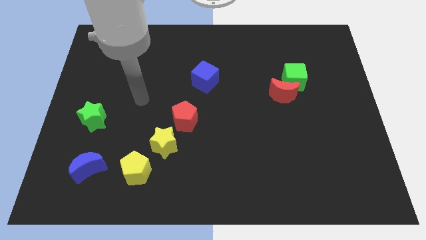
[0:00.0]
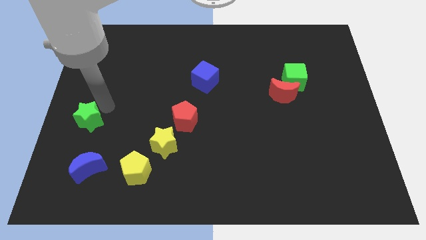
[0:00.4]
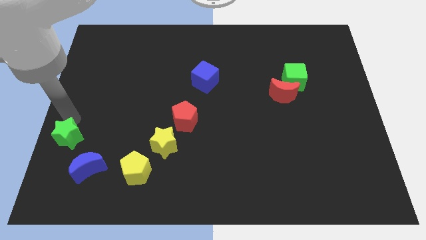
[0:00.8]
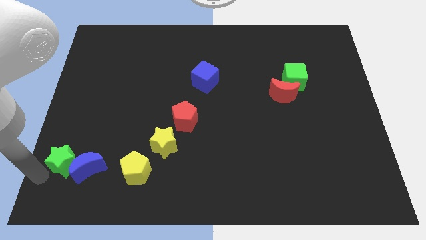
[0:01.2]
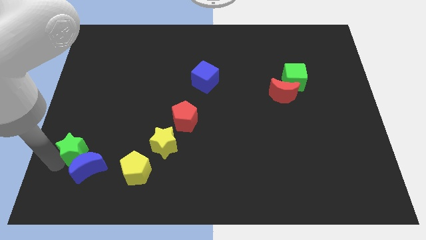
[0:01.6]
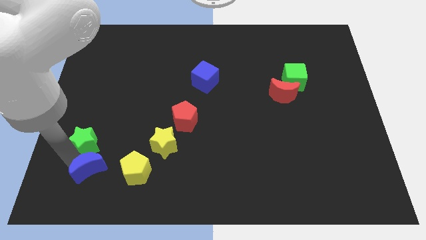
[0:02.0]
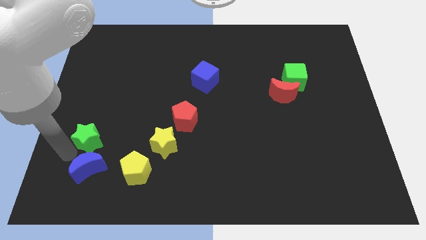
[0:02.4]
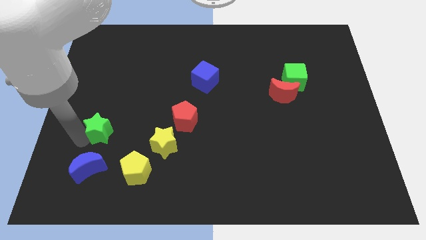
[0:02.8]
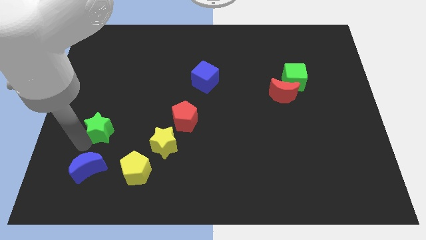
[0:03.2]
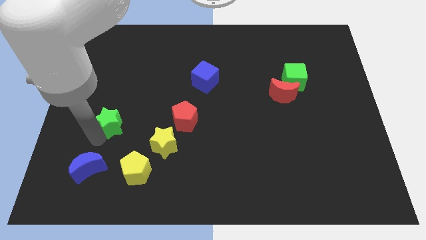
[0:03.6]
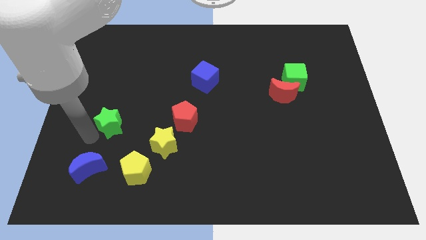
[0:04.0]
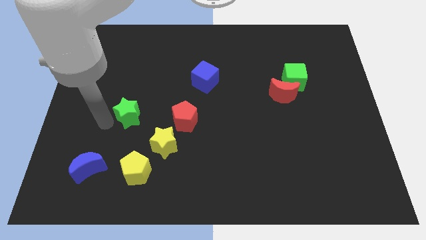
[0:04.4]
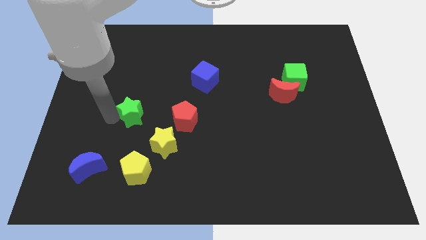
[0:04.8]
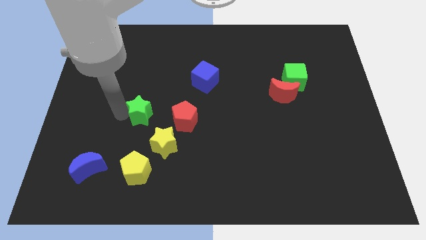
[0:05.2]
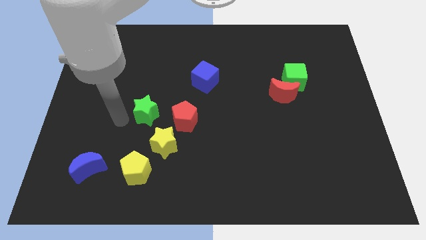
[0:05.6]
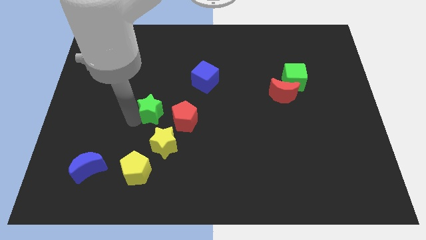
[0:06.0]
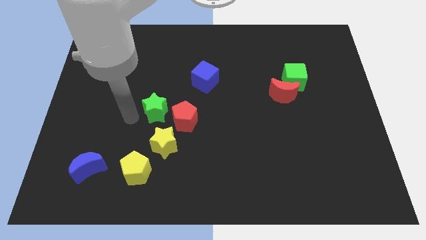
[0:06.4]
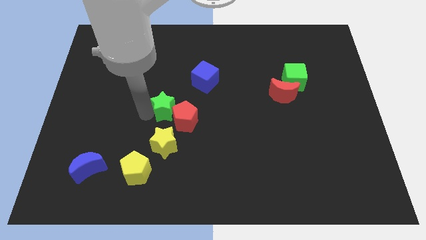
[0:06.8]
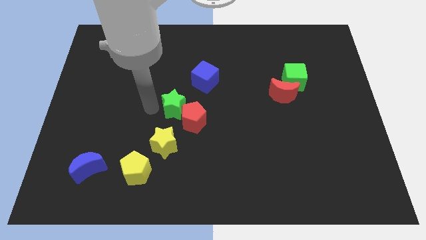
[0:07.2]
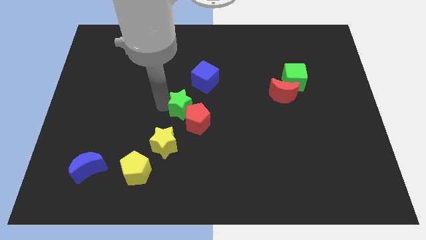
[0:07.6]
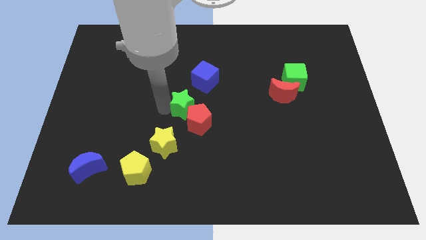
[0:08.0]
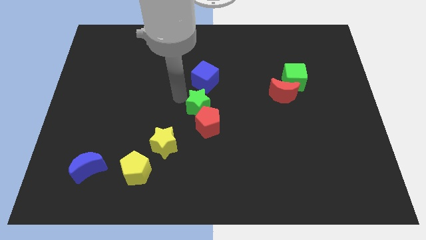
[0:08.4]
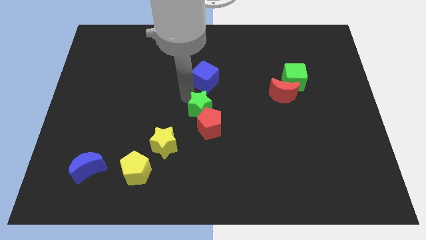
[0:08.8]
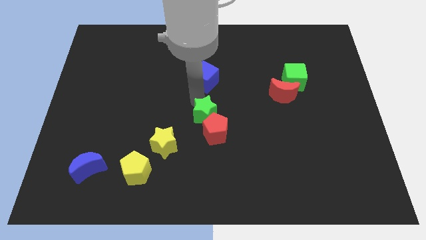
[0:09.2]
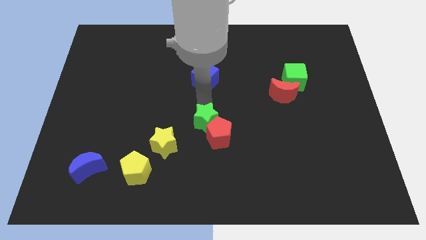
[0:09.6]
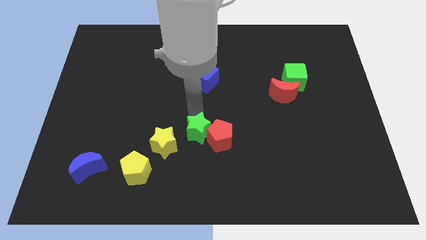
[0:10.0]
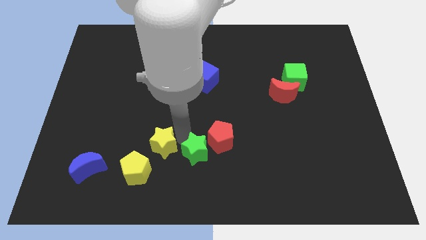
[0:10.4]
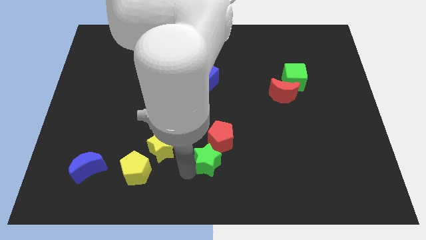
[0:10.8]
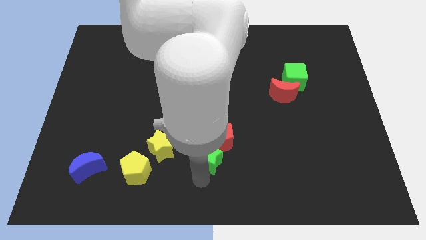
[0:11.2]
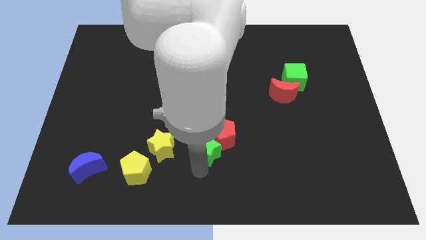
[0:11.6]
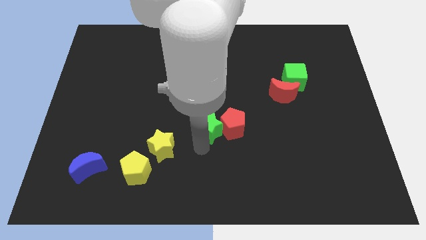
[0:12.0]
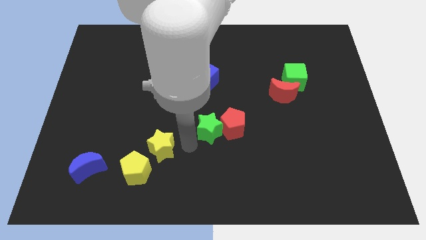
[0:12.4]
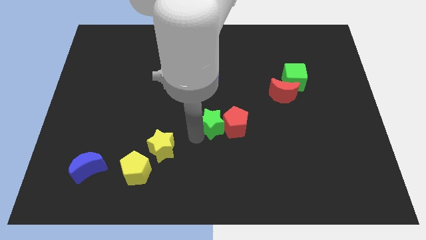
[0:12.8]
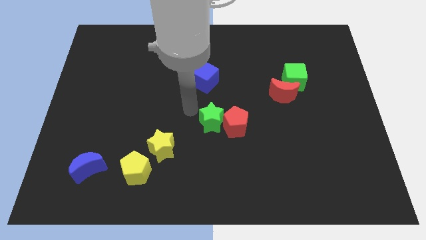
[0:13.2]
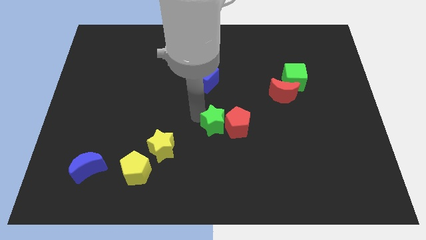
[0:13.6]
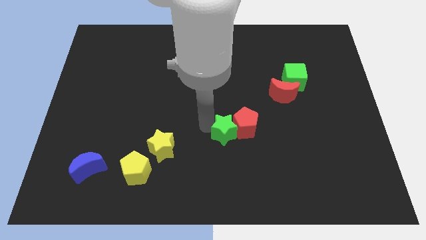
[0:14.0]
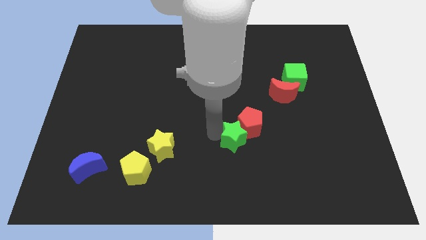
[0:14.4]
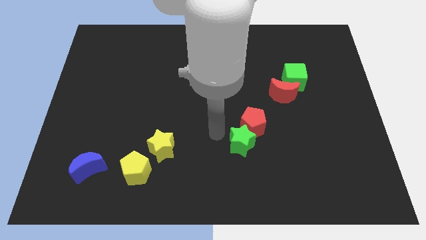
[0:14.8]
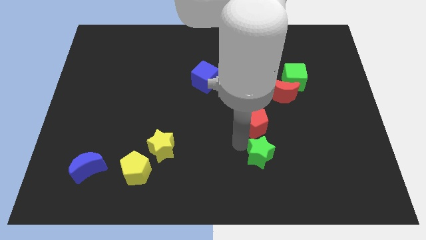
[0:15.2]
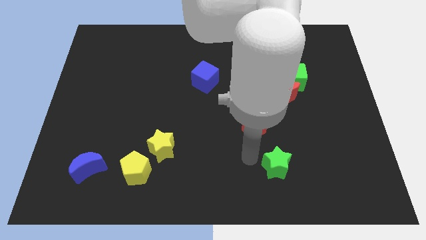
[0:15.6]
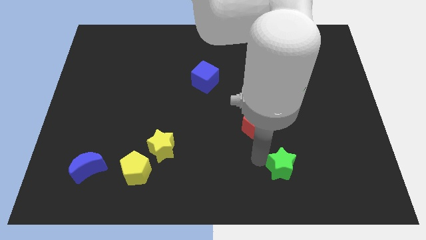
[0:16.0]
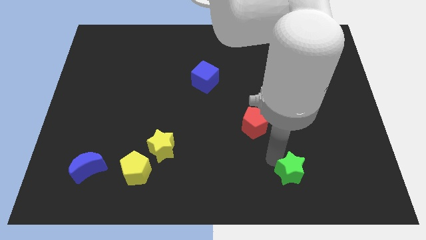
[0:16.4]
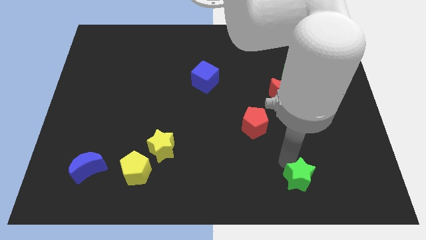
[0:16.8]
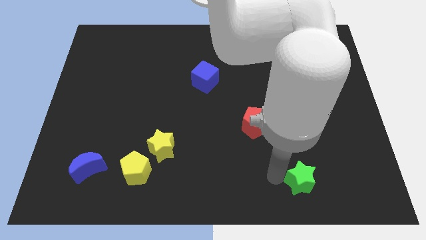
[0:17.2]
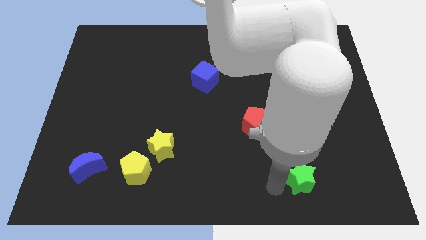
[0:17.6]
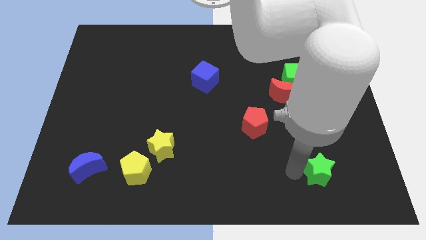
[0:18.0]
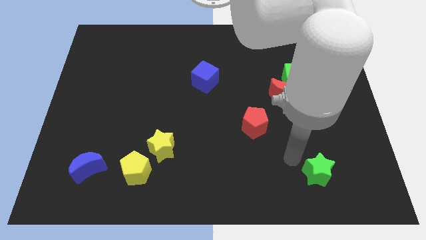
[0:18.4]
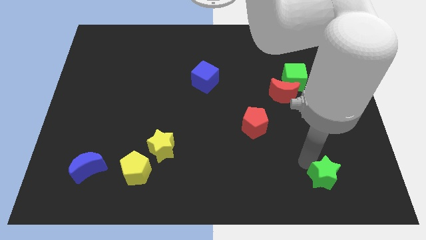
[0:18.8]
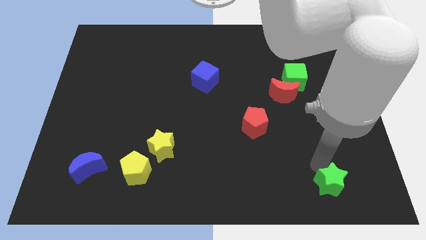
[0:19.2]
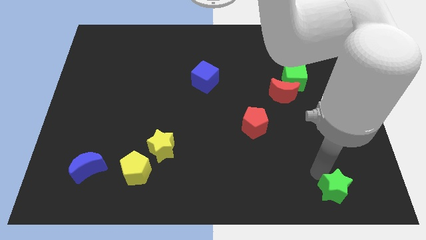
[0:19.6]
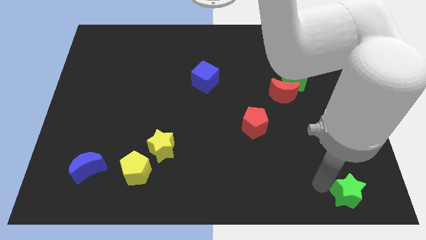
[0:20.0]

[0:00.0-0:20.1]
move the green star to the bottom right

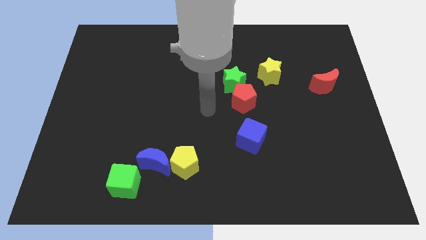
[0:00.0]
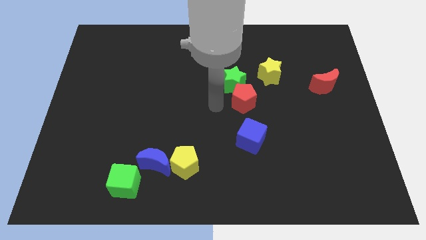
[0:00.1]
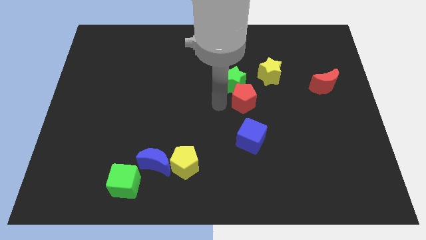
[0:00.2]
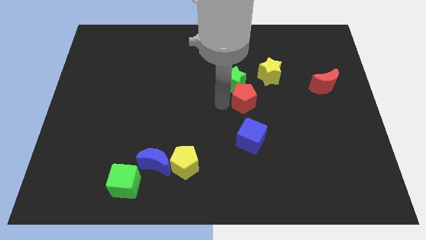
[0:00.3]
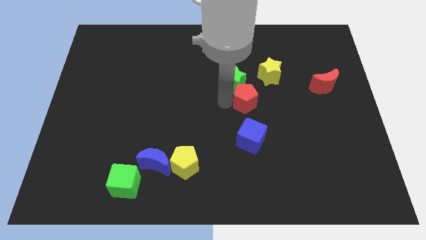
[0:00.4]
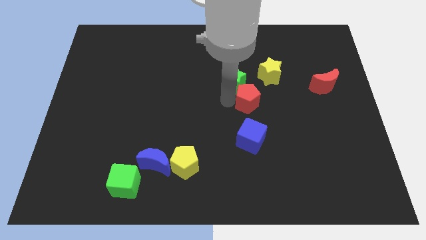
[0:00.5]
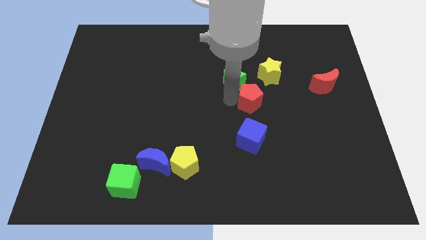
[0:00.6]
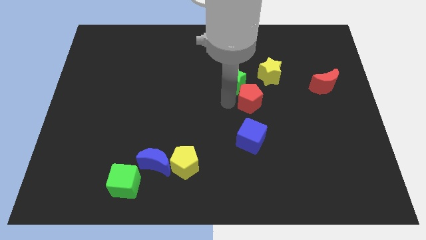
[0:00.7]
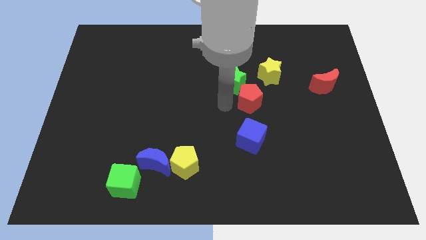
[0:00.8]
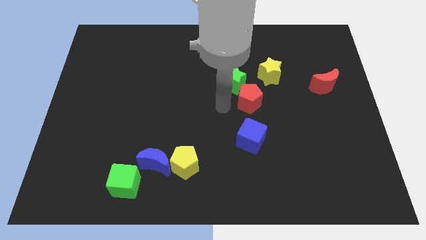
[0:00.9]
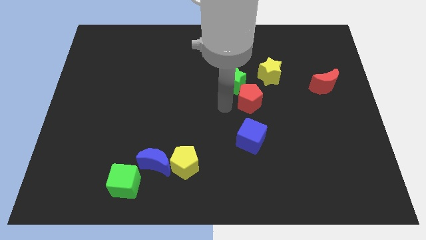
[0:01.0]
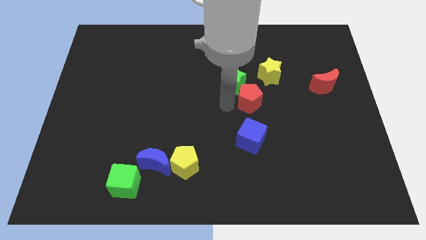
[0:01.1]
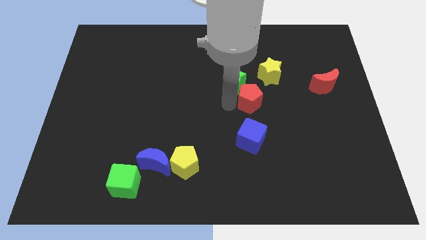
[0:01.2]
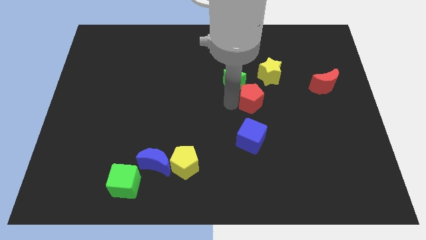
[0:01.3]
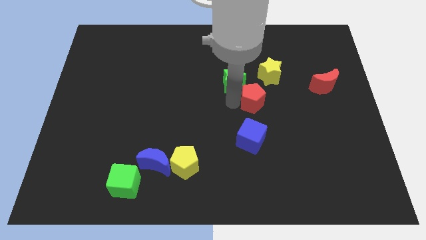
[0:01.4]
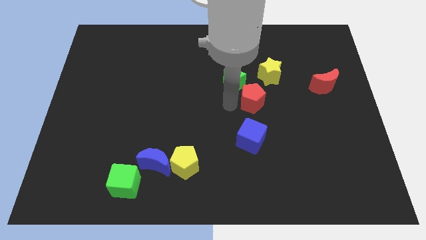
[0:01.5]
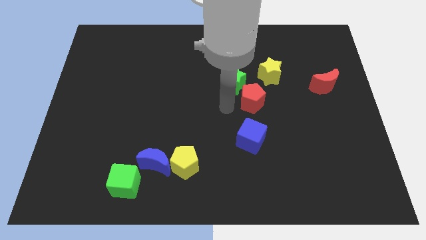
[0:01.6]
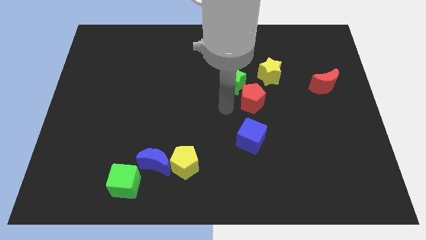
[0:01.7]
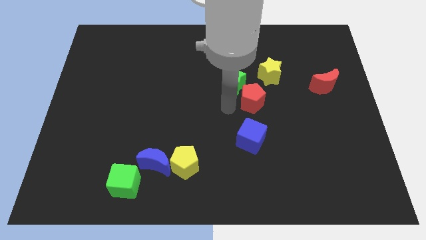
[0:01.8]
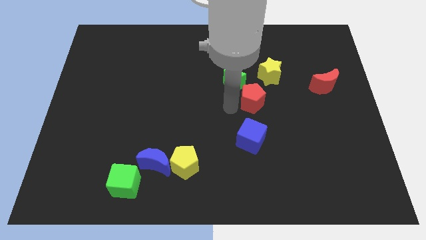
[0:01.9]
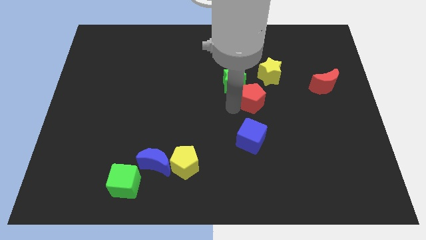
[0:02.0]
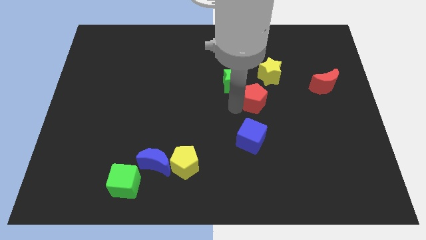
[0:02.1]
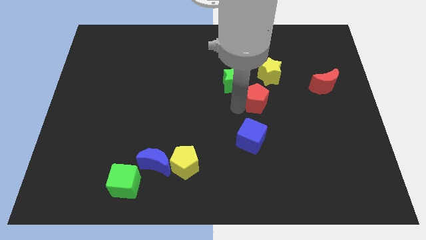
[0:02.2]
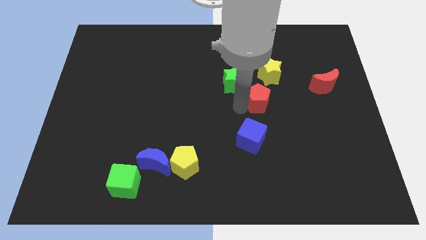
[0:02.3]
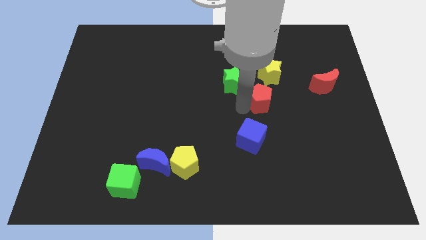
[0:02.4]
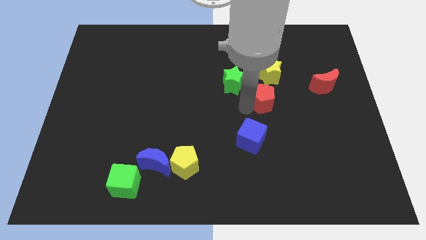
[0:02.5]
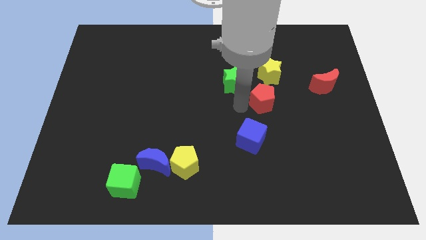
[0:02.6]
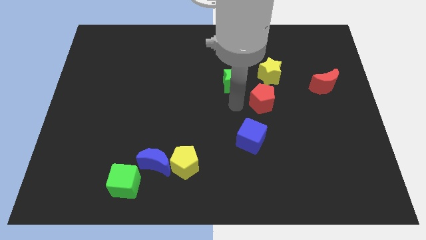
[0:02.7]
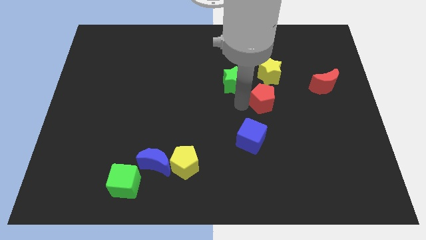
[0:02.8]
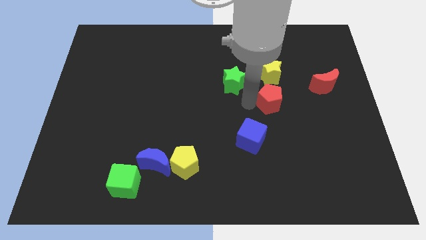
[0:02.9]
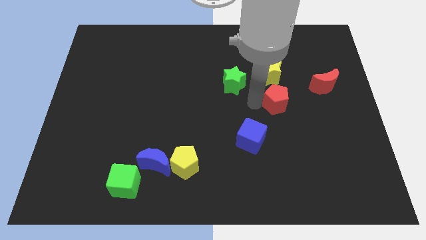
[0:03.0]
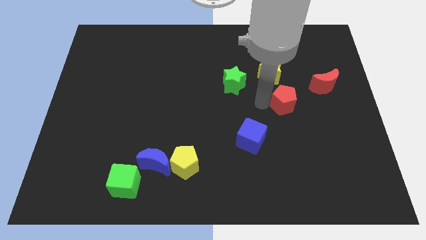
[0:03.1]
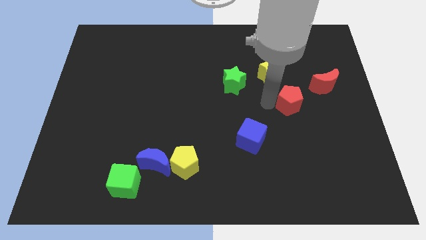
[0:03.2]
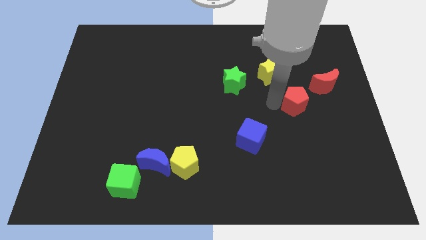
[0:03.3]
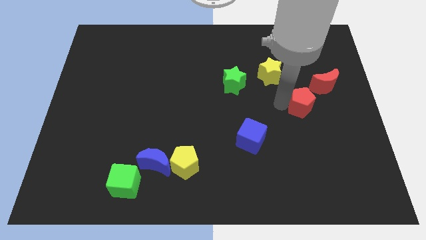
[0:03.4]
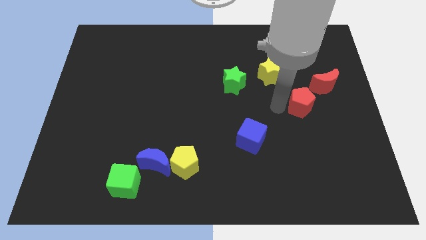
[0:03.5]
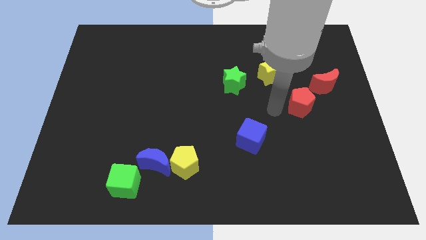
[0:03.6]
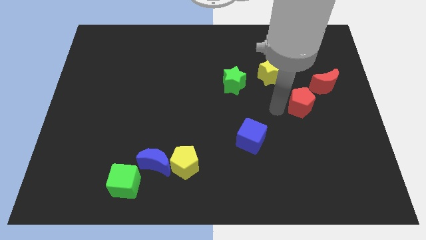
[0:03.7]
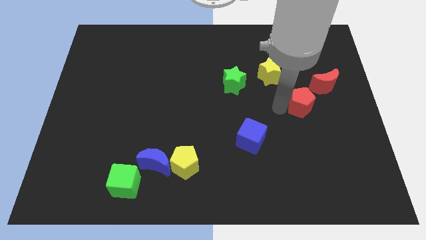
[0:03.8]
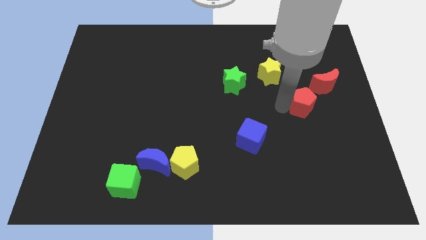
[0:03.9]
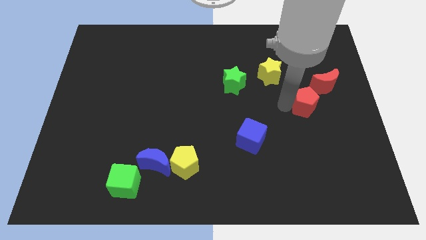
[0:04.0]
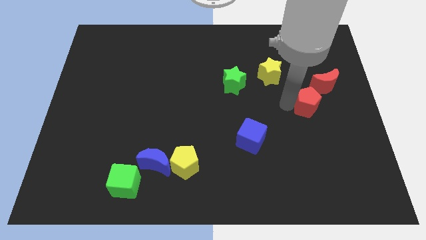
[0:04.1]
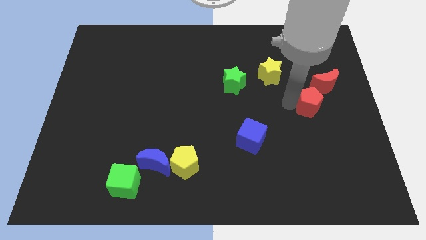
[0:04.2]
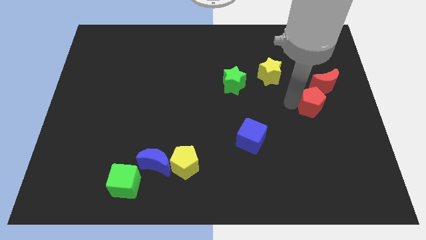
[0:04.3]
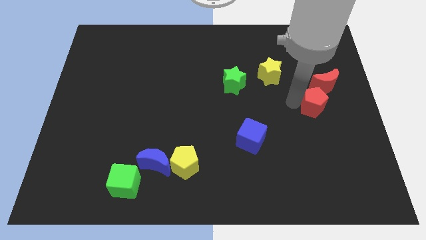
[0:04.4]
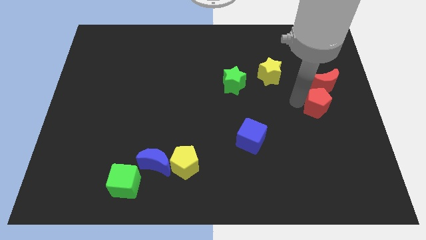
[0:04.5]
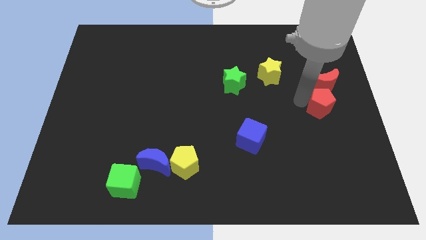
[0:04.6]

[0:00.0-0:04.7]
move the red pentagon to the center right
